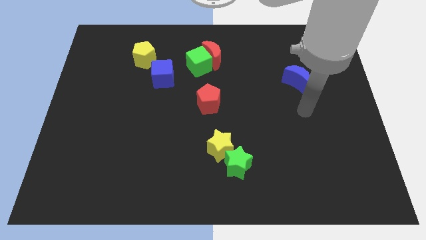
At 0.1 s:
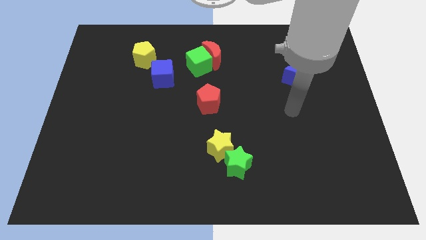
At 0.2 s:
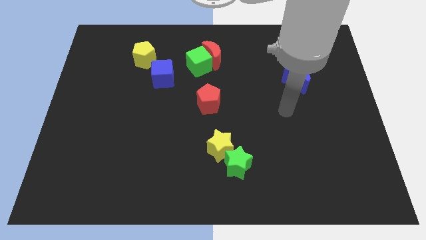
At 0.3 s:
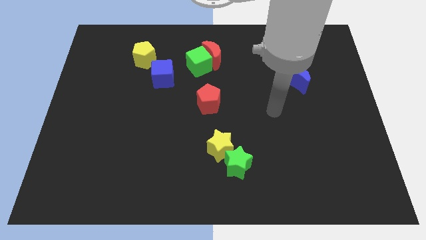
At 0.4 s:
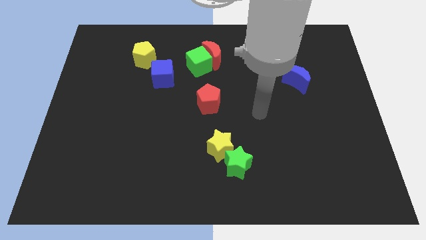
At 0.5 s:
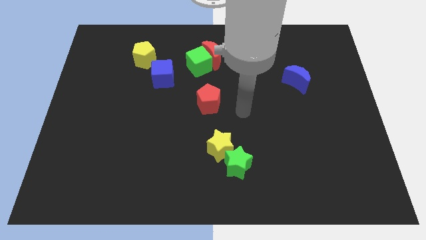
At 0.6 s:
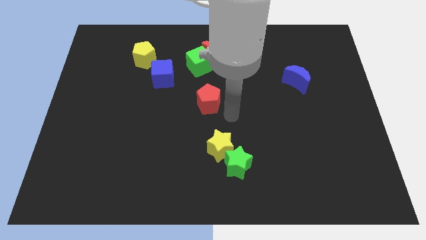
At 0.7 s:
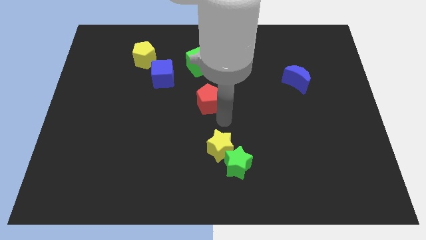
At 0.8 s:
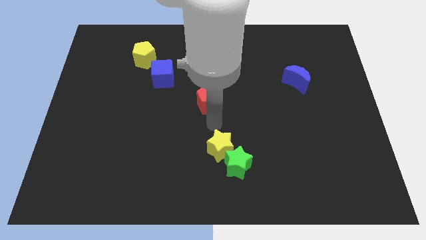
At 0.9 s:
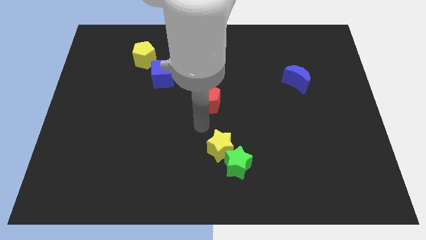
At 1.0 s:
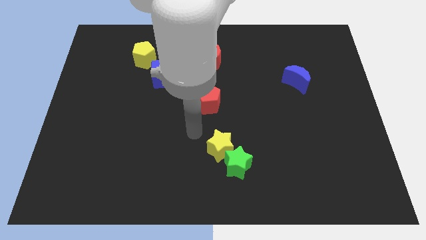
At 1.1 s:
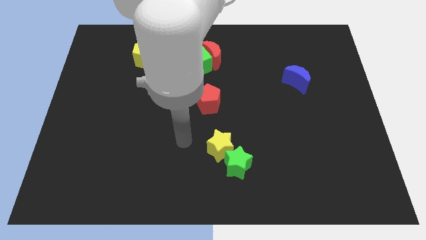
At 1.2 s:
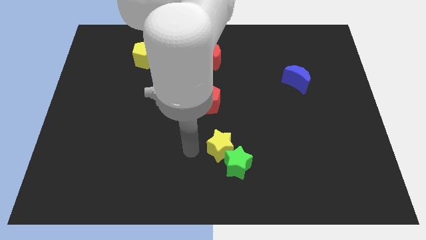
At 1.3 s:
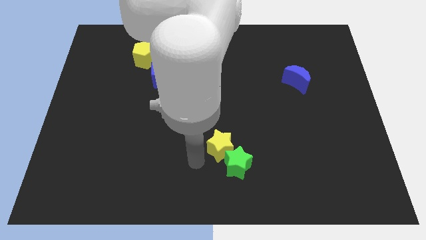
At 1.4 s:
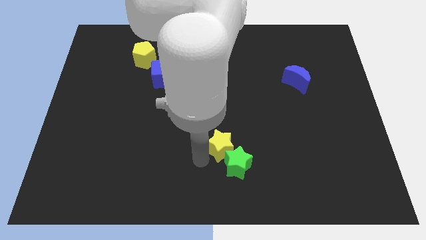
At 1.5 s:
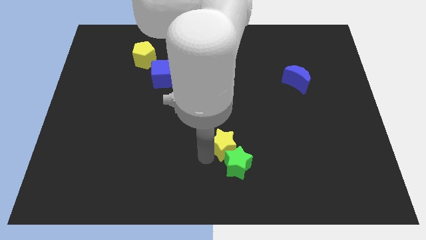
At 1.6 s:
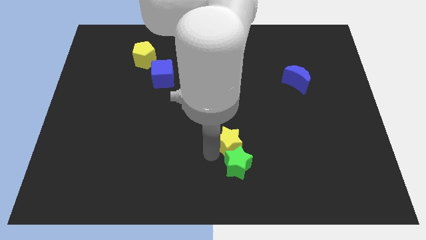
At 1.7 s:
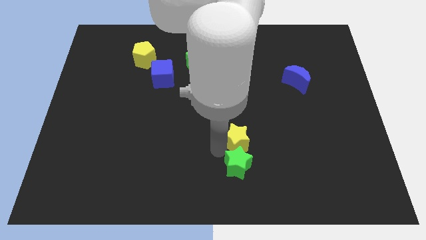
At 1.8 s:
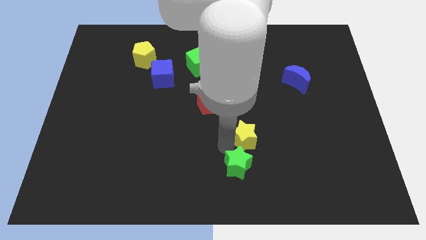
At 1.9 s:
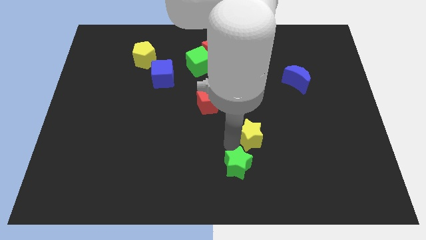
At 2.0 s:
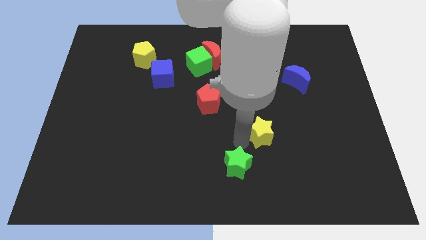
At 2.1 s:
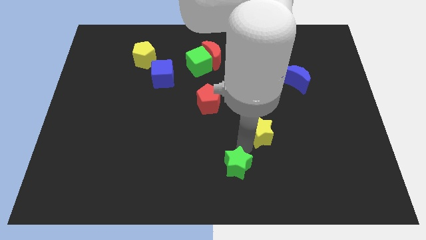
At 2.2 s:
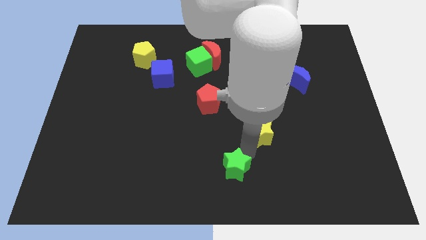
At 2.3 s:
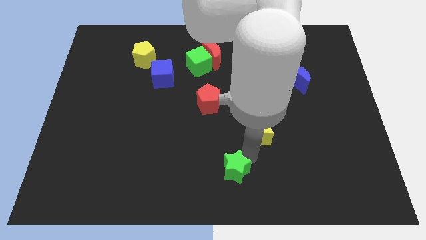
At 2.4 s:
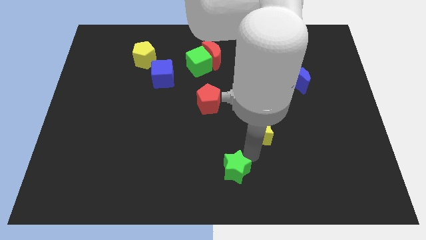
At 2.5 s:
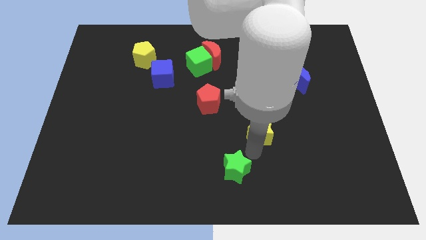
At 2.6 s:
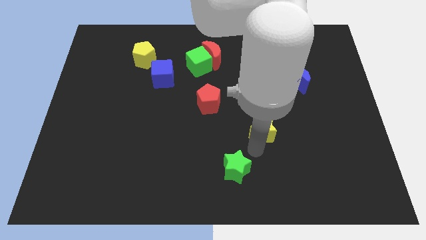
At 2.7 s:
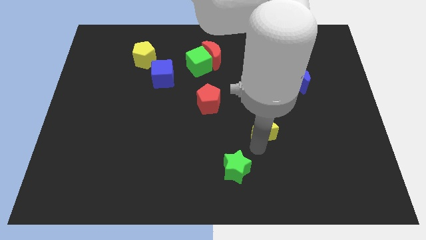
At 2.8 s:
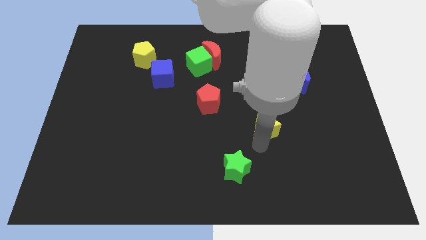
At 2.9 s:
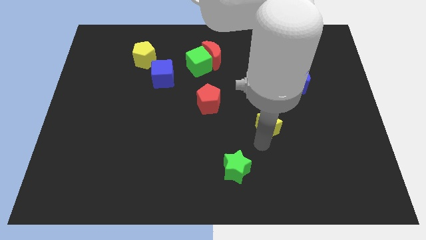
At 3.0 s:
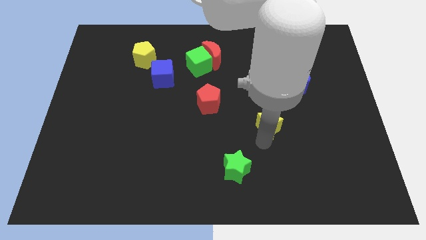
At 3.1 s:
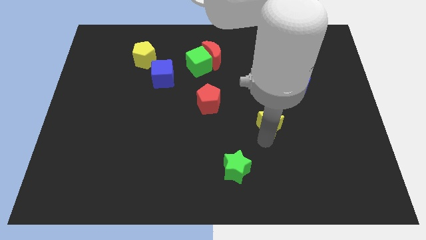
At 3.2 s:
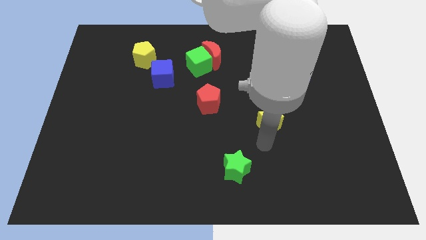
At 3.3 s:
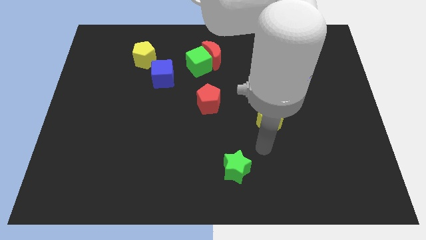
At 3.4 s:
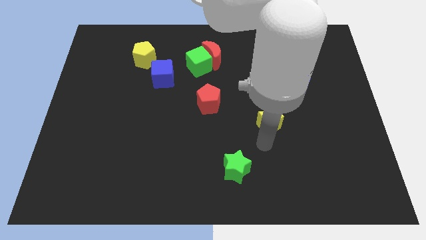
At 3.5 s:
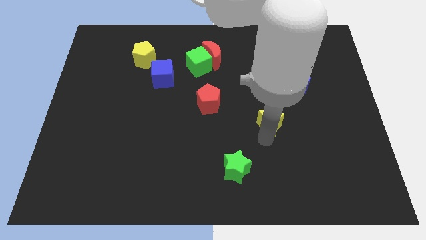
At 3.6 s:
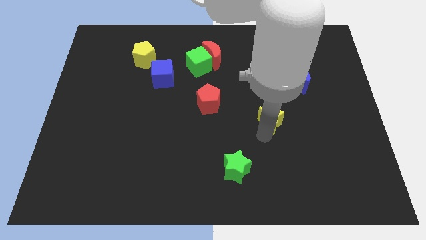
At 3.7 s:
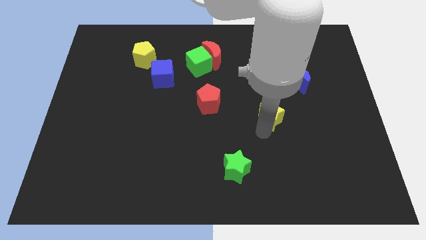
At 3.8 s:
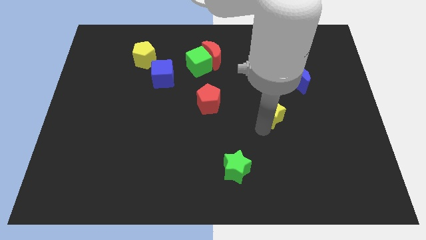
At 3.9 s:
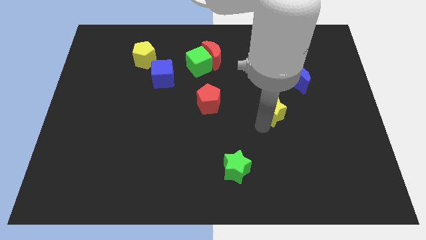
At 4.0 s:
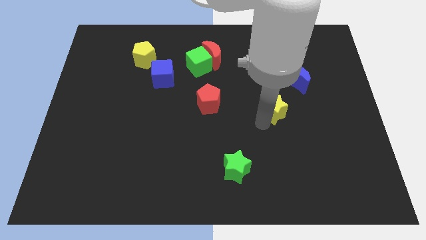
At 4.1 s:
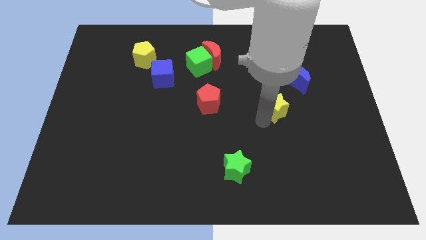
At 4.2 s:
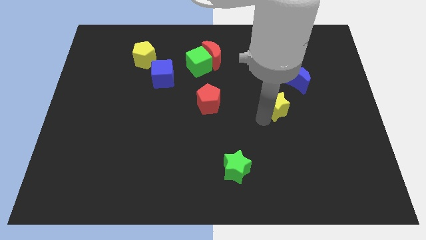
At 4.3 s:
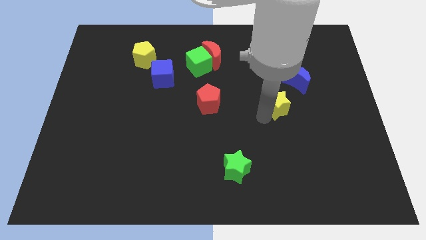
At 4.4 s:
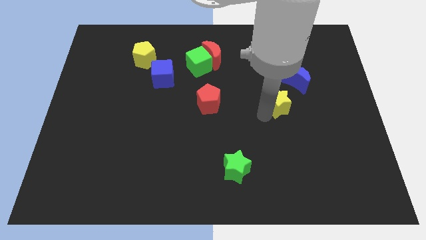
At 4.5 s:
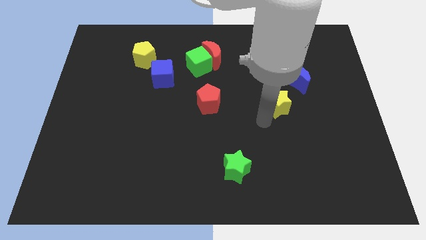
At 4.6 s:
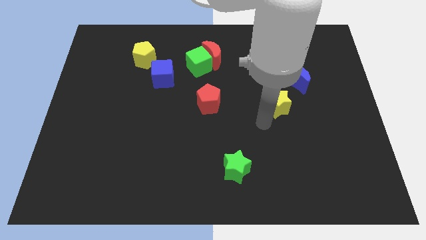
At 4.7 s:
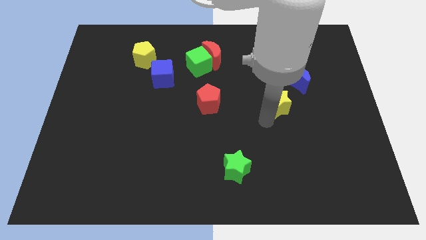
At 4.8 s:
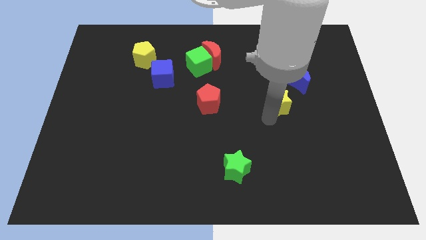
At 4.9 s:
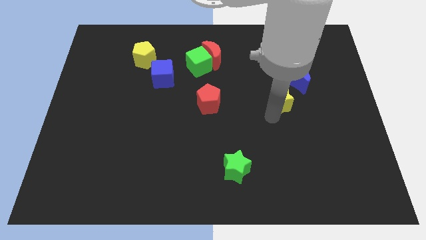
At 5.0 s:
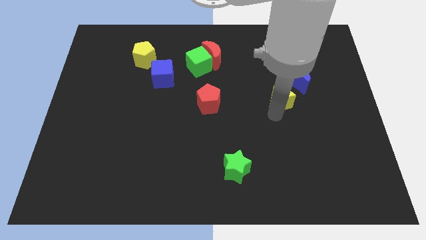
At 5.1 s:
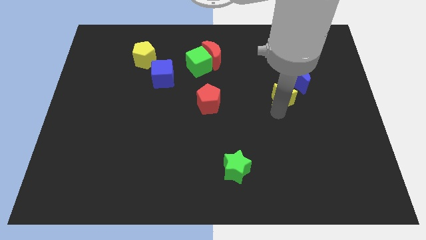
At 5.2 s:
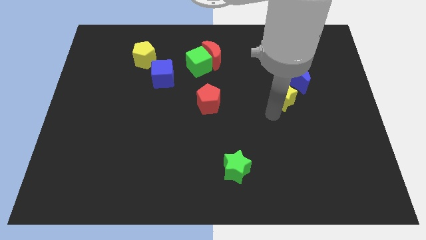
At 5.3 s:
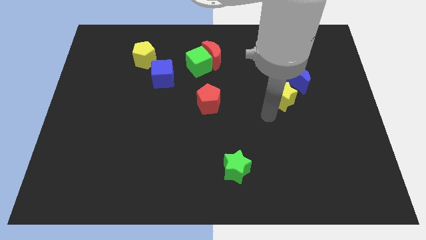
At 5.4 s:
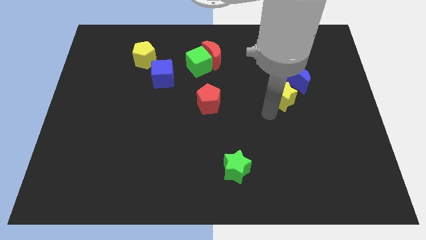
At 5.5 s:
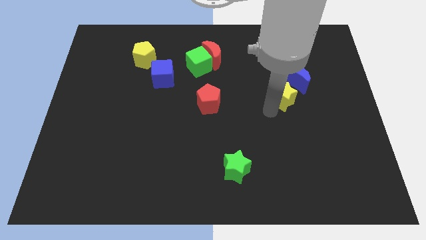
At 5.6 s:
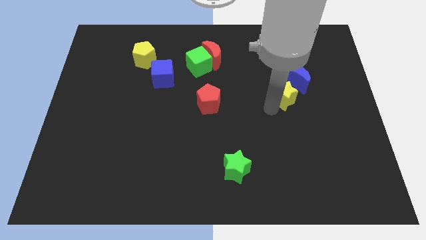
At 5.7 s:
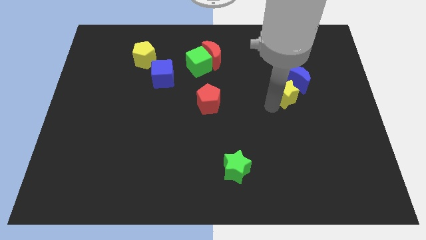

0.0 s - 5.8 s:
put the yellow star towards the blue moon
